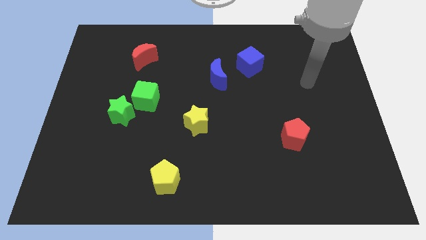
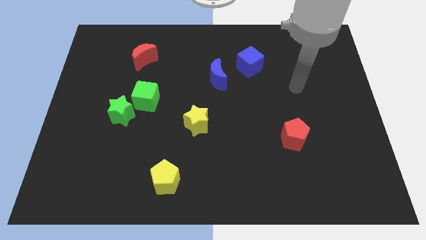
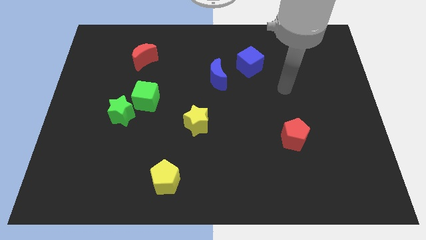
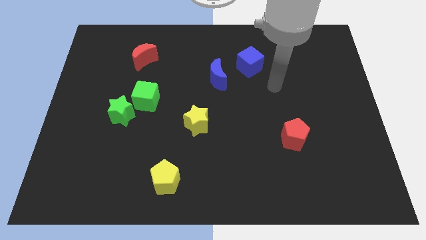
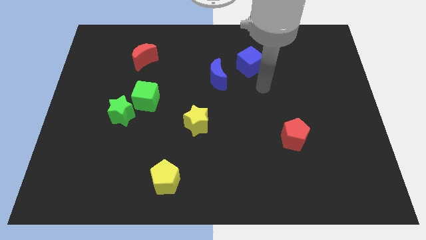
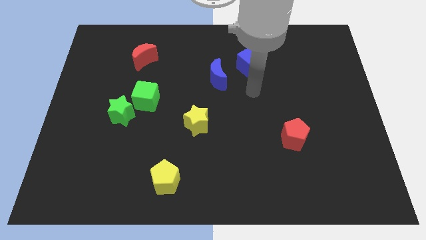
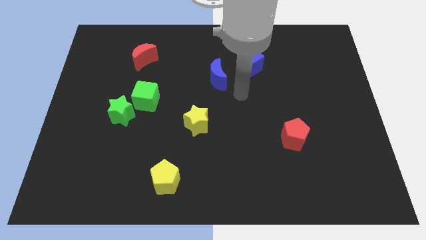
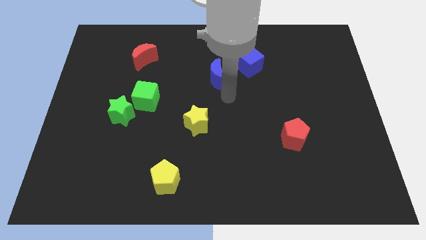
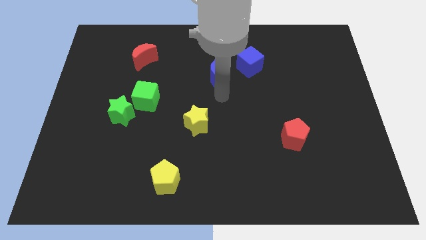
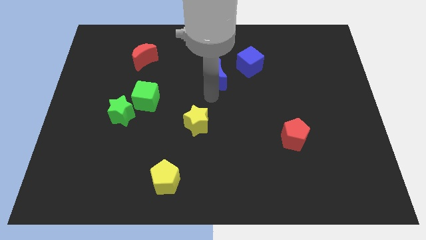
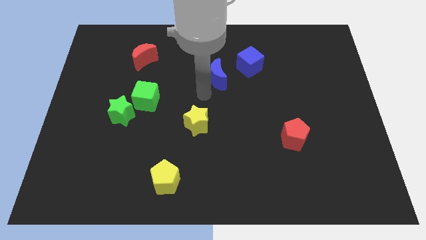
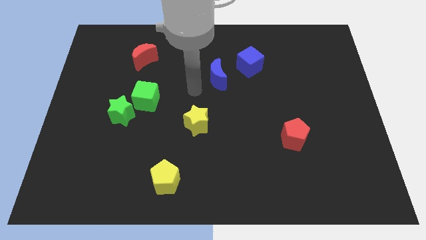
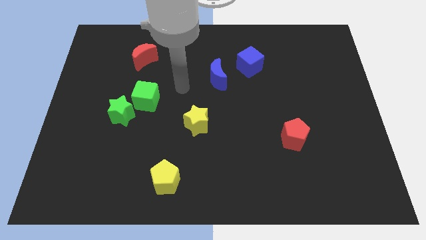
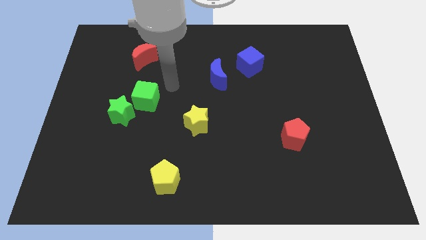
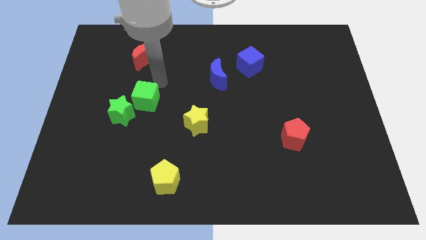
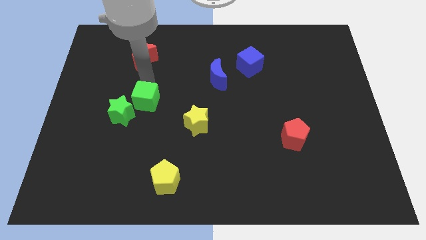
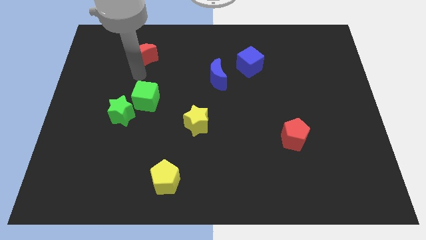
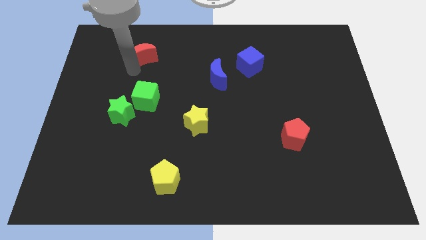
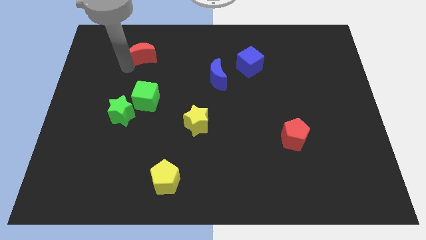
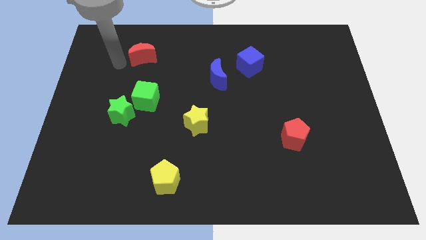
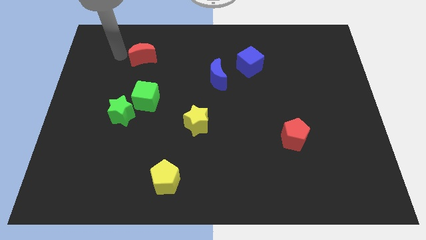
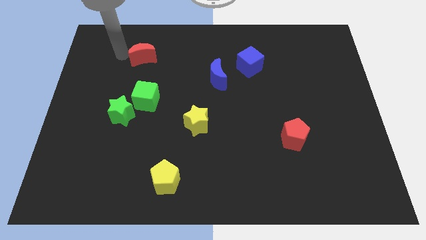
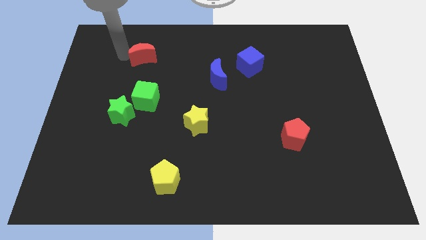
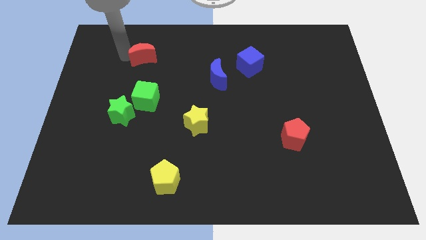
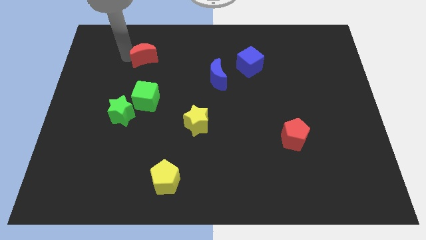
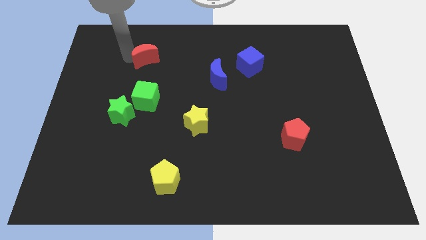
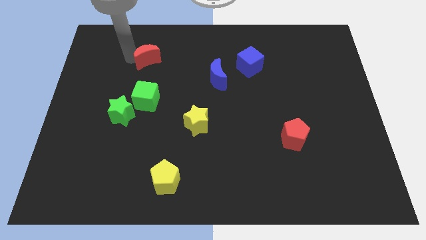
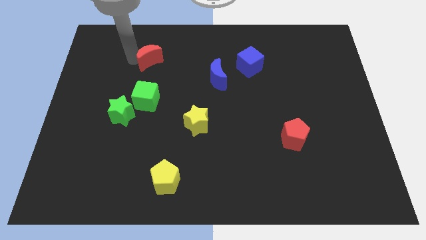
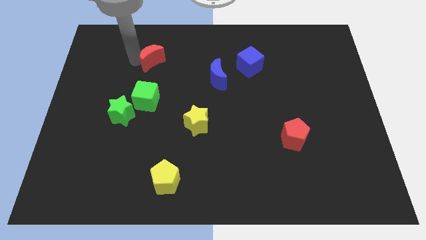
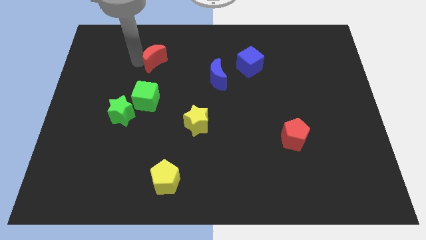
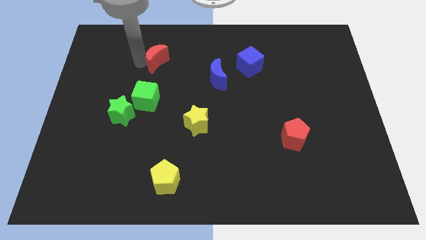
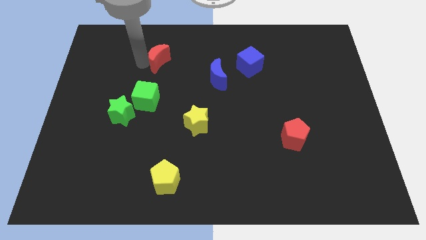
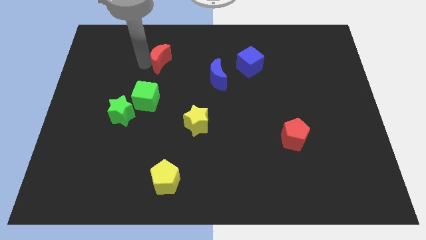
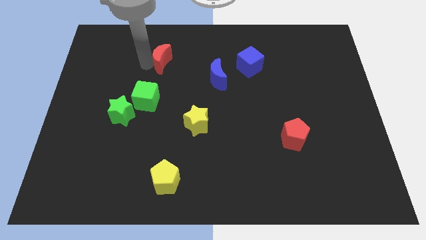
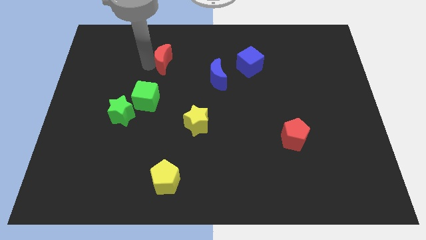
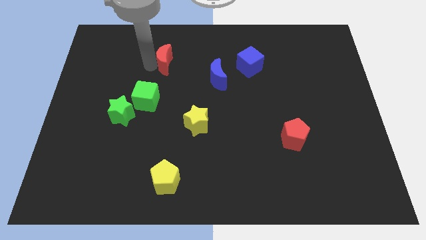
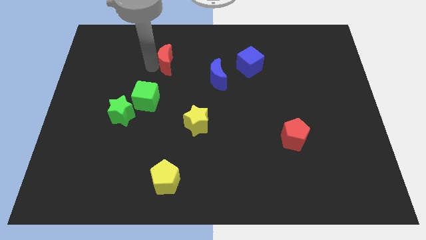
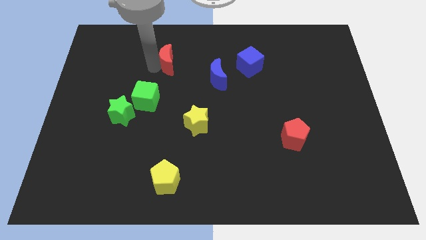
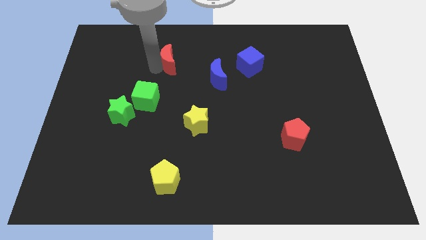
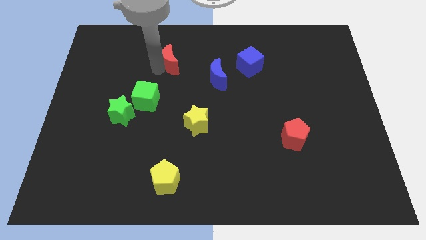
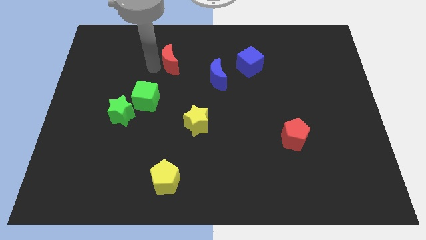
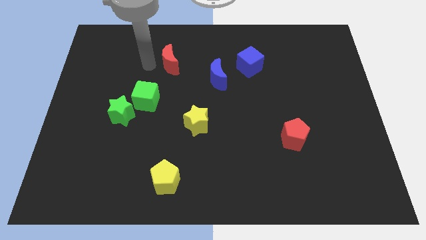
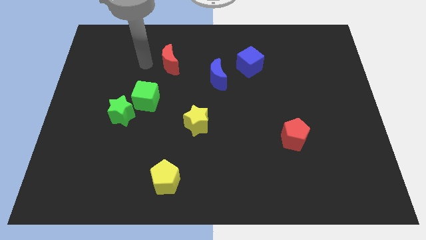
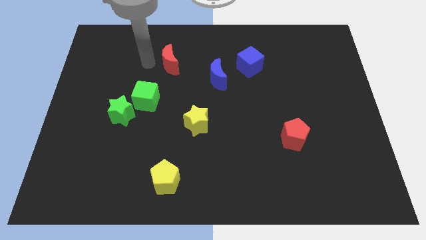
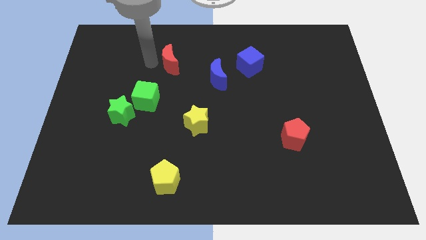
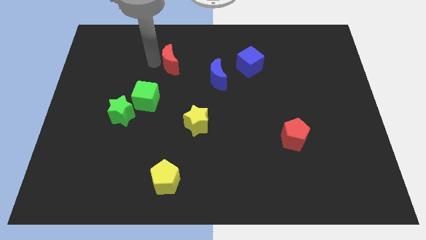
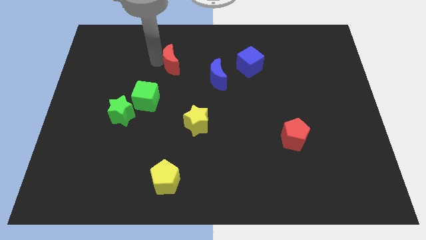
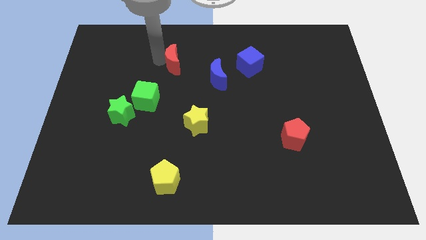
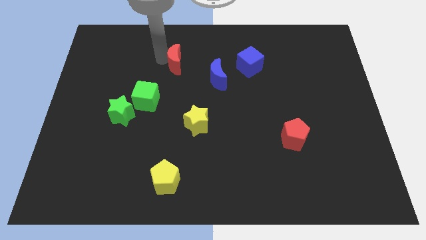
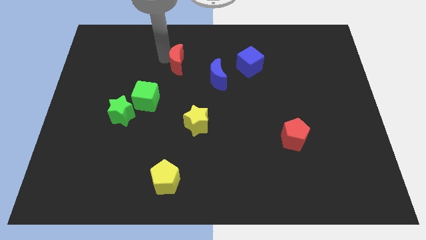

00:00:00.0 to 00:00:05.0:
put the red moon to the top left of the blue moon

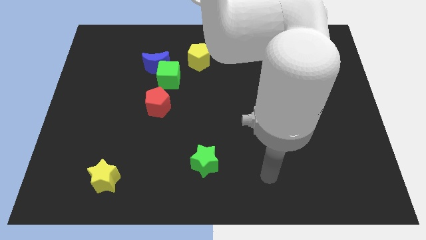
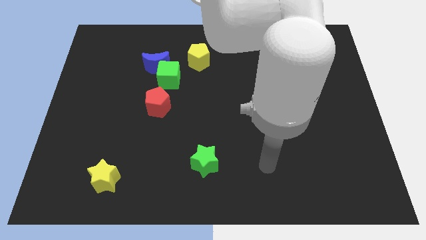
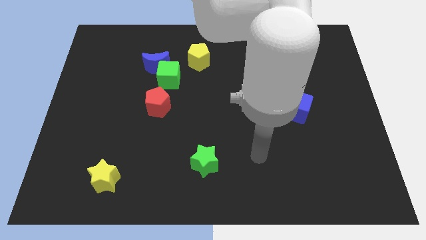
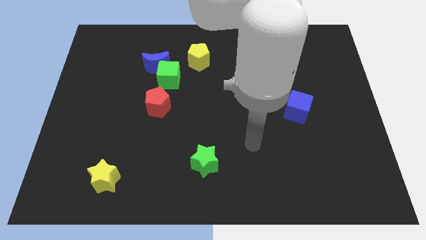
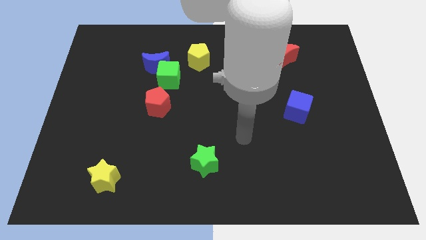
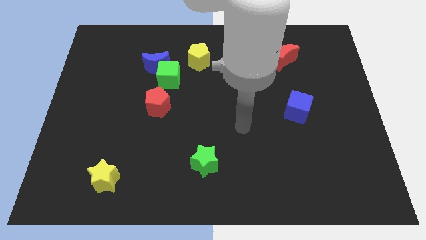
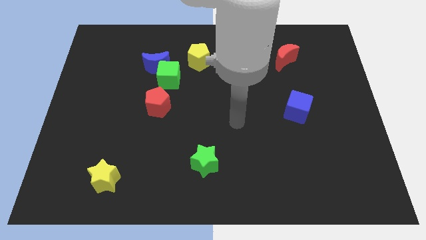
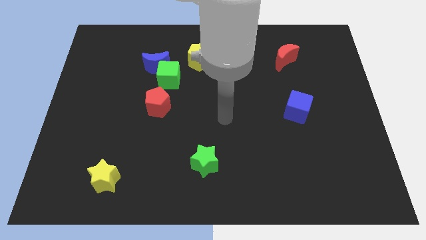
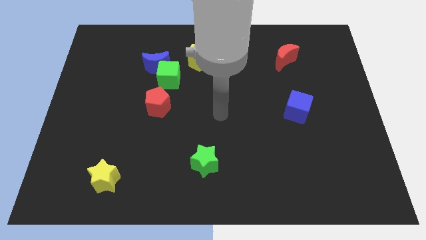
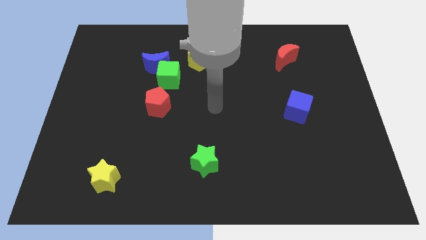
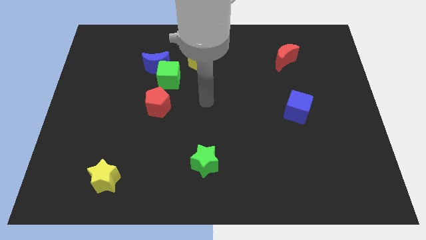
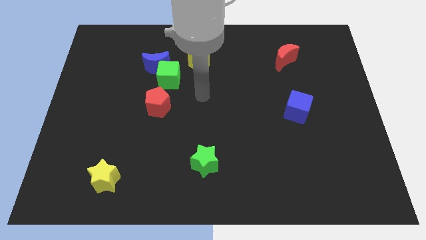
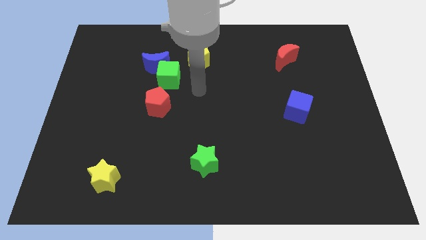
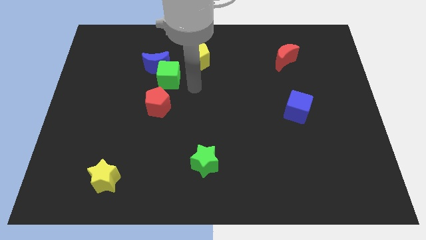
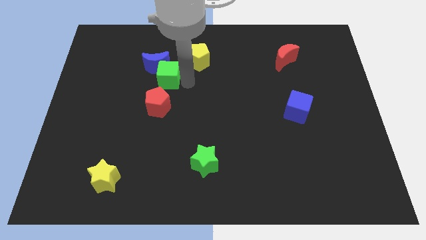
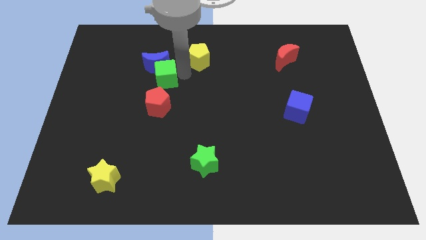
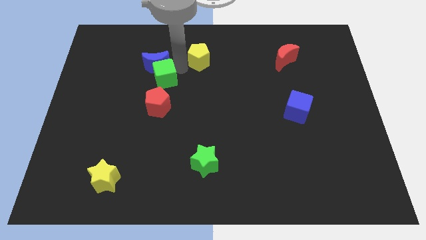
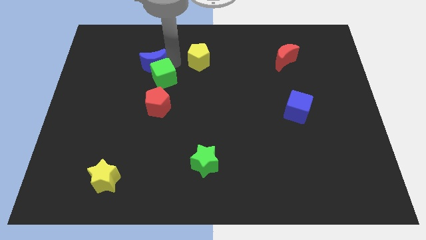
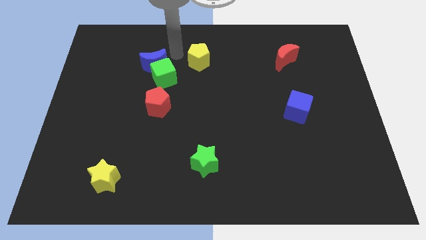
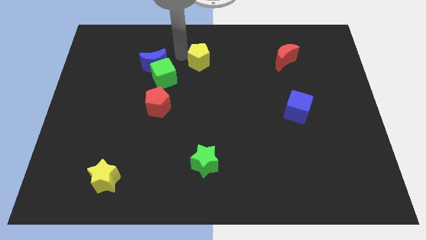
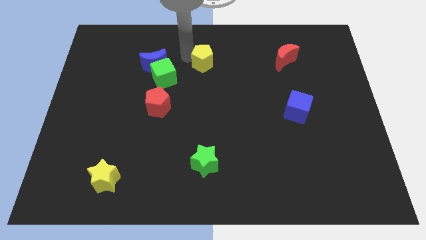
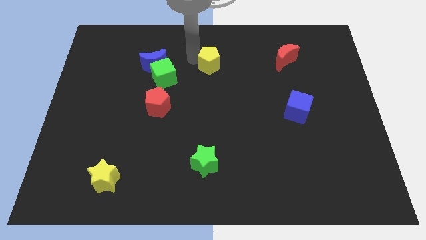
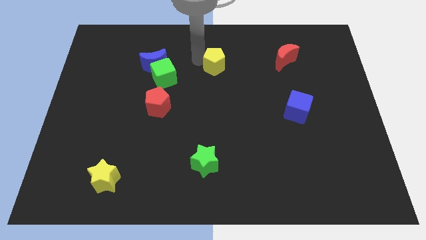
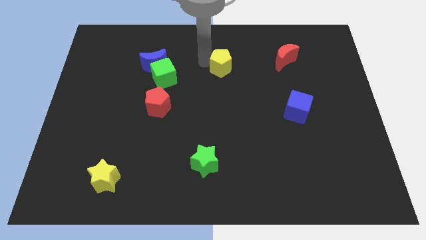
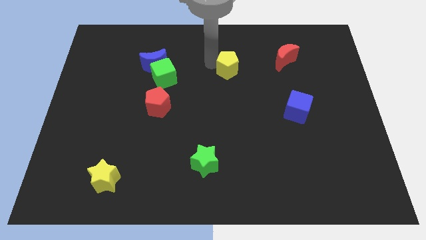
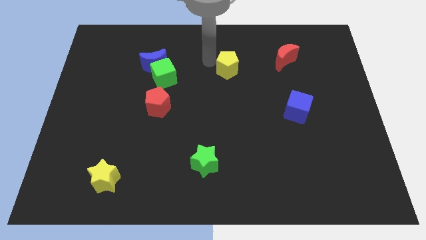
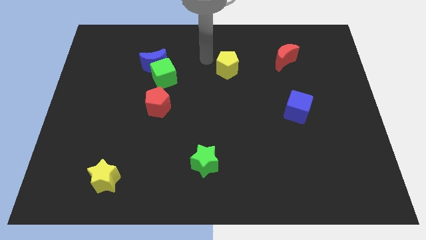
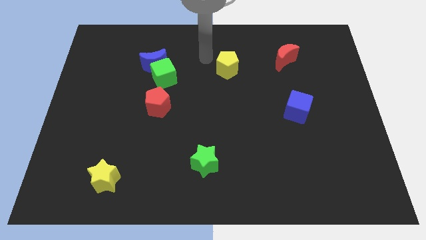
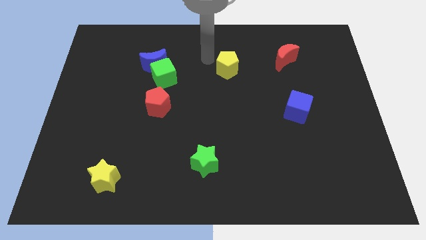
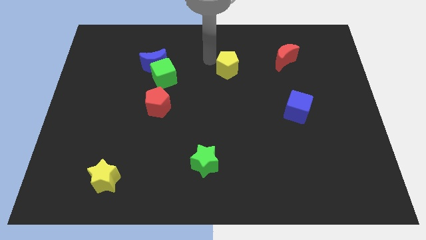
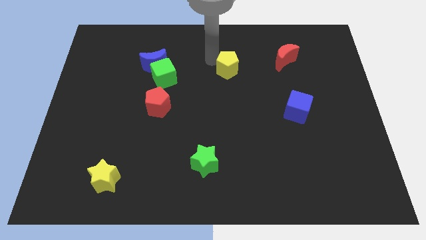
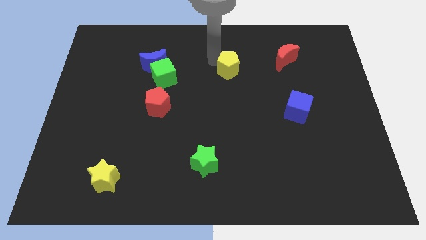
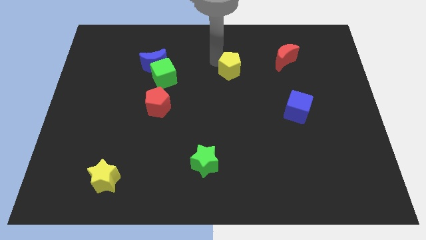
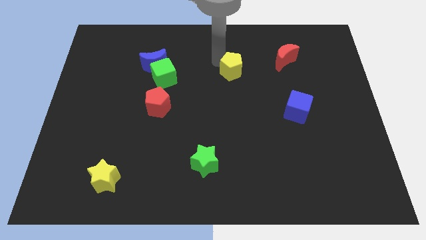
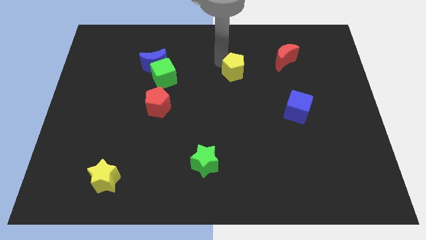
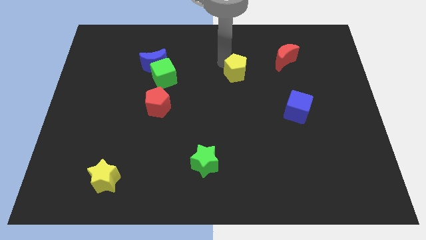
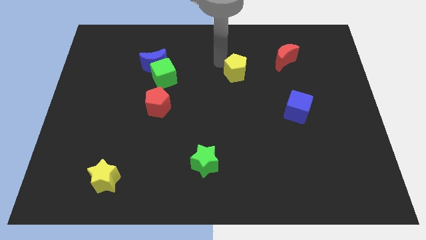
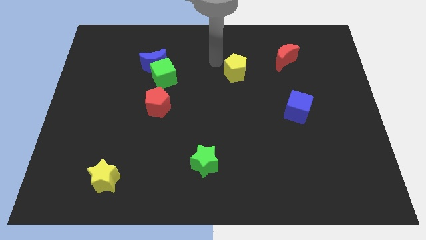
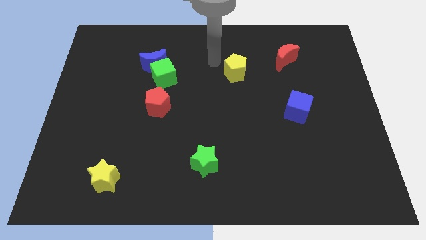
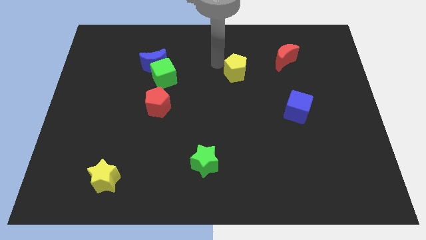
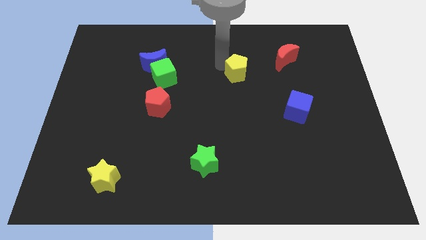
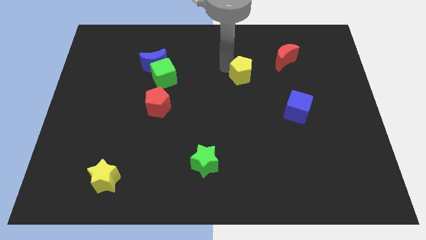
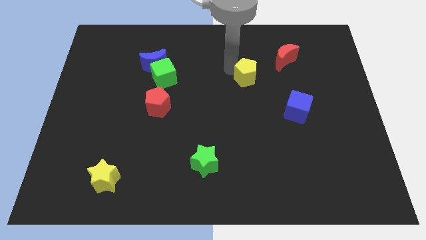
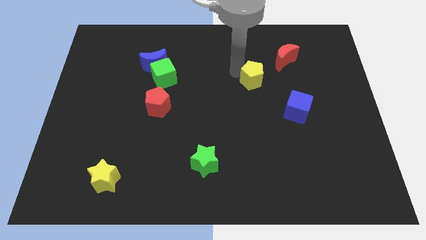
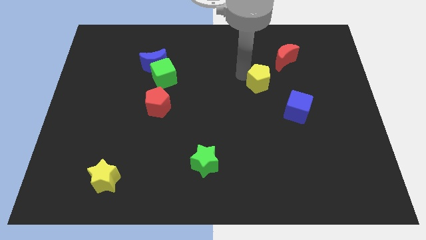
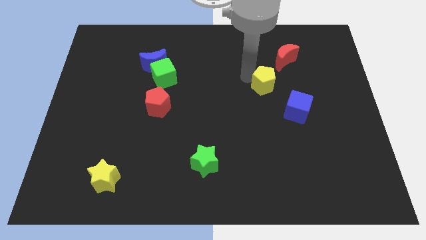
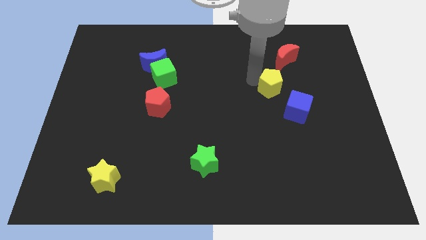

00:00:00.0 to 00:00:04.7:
slide the yellow pentagon to the bottom side of the red moon
